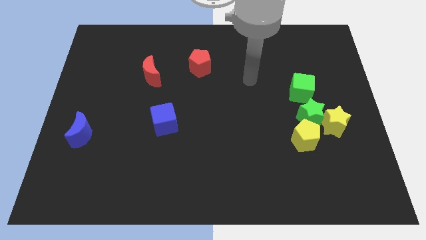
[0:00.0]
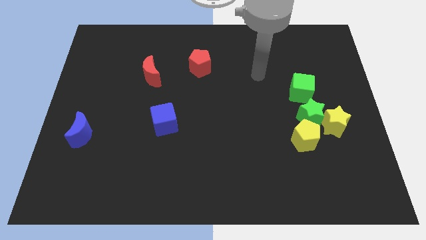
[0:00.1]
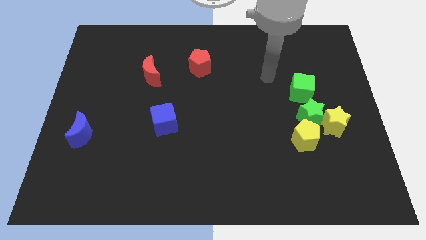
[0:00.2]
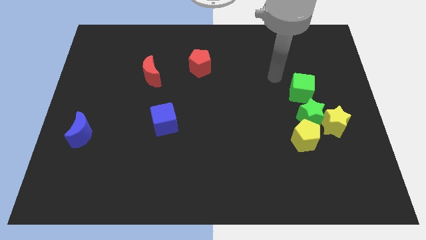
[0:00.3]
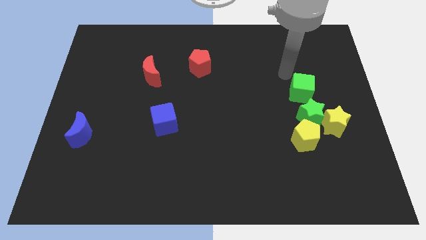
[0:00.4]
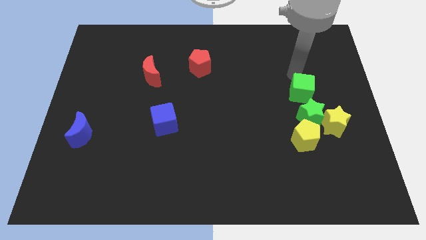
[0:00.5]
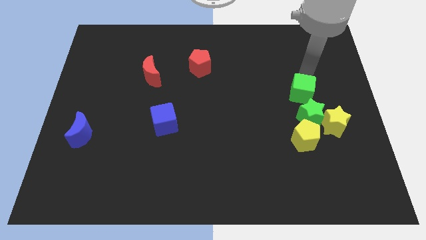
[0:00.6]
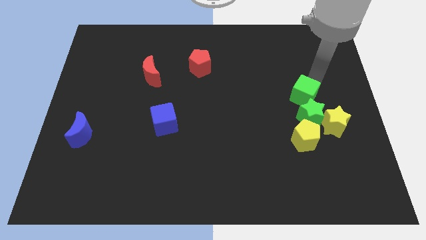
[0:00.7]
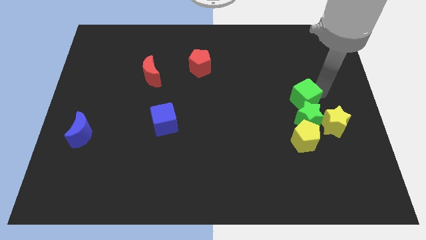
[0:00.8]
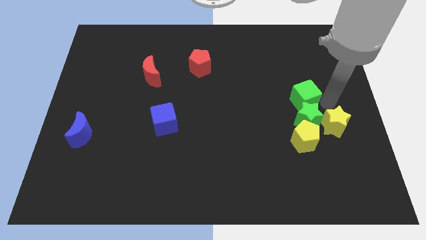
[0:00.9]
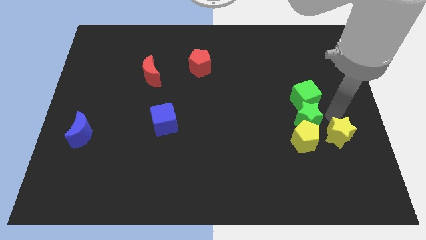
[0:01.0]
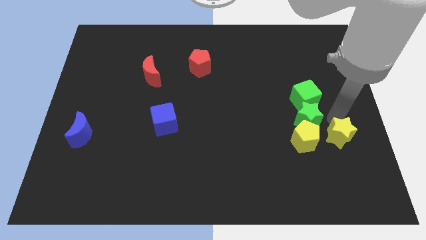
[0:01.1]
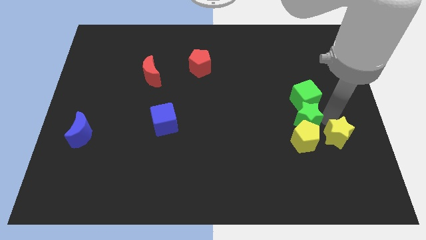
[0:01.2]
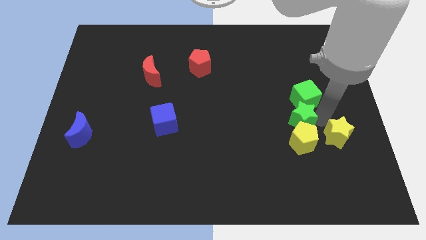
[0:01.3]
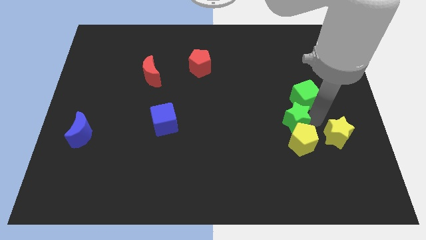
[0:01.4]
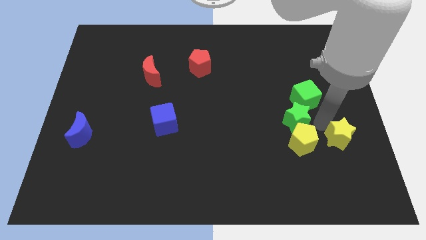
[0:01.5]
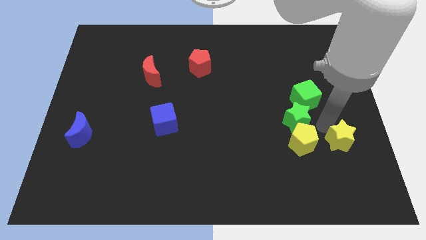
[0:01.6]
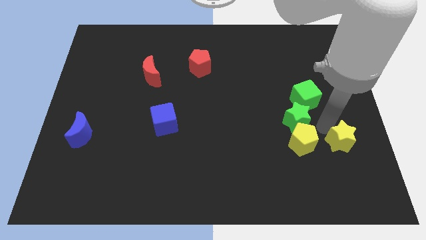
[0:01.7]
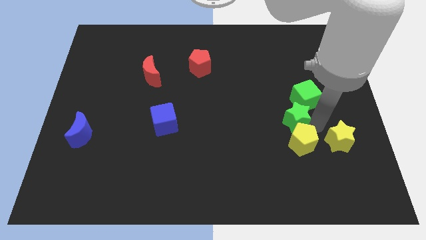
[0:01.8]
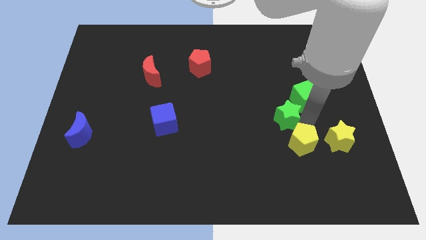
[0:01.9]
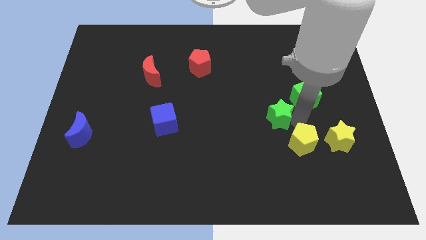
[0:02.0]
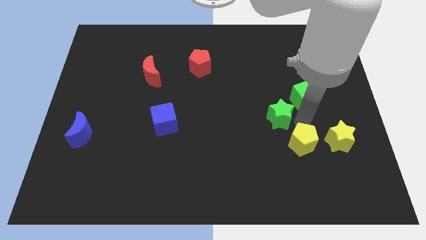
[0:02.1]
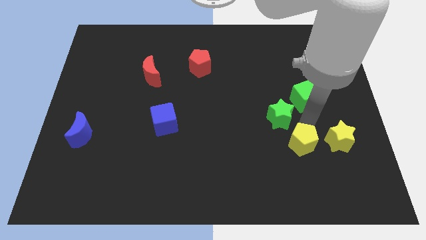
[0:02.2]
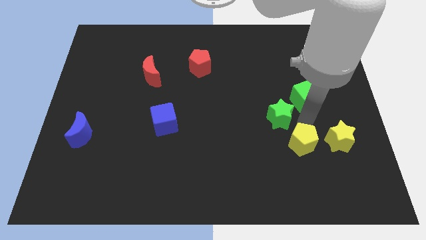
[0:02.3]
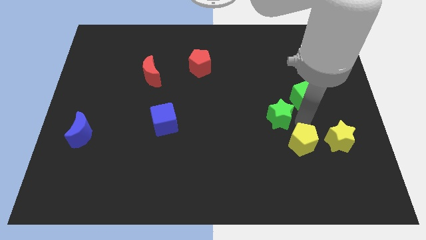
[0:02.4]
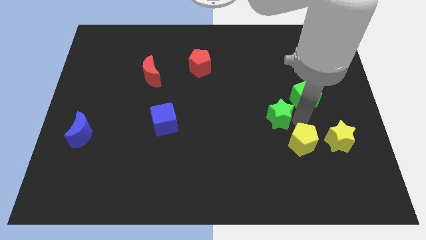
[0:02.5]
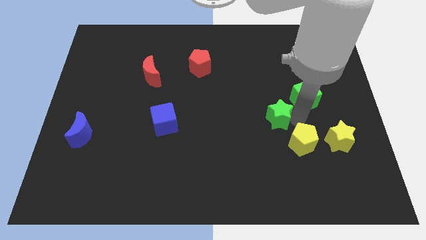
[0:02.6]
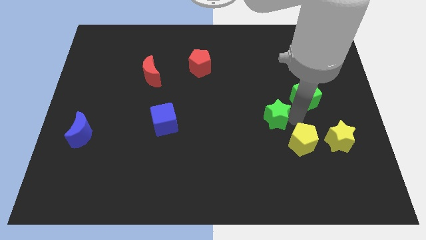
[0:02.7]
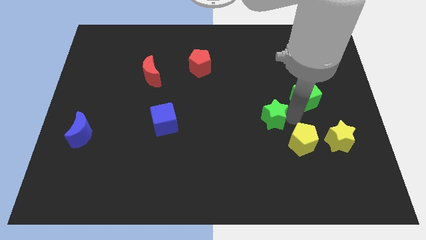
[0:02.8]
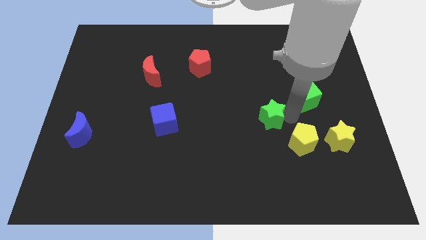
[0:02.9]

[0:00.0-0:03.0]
pull the green star apart from the yellow star, yellow pentagon, and green cube

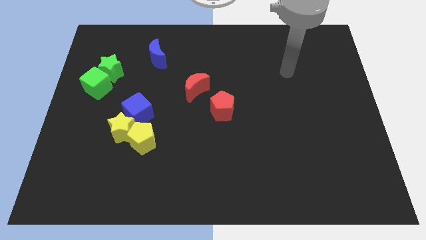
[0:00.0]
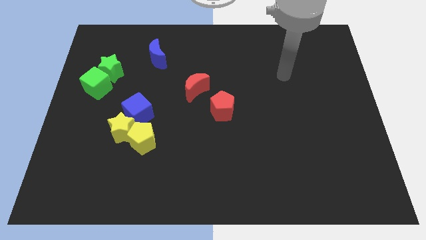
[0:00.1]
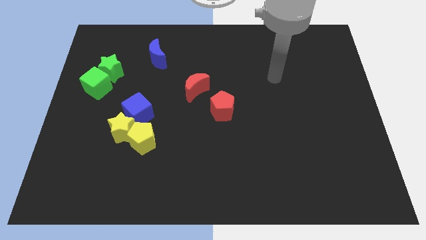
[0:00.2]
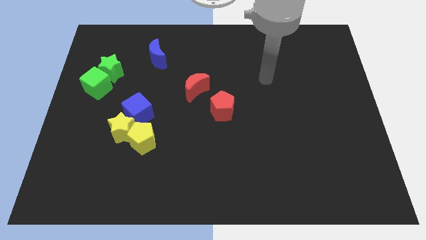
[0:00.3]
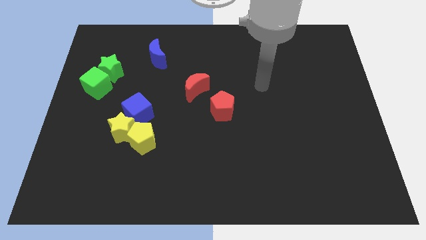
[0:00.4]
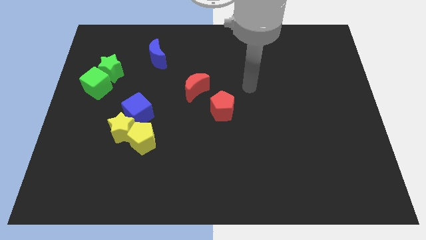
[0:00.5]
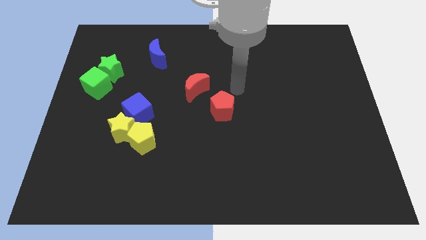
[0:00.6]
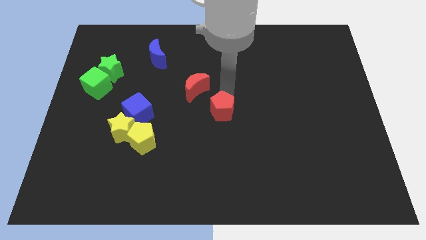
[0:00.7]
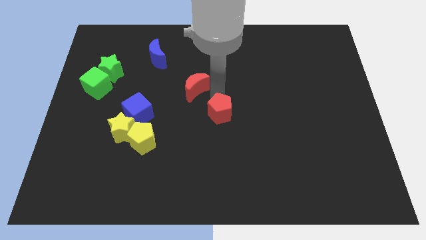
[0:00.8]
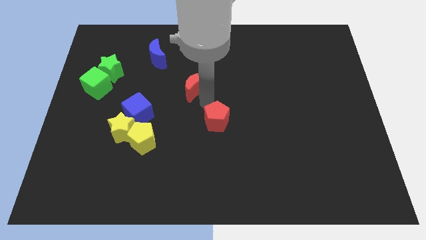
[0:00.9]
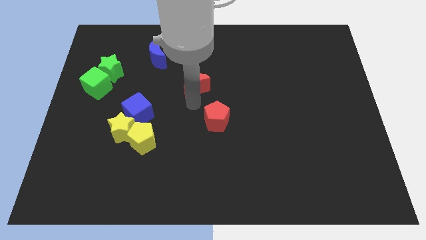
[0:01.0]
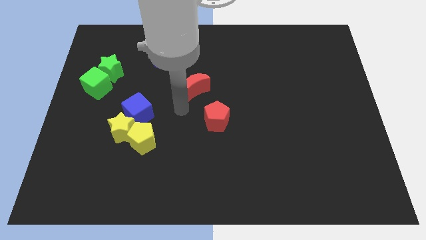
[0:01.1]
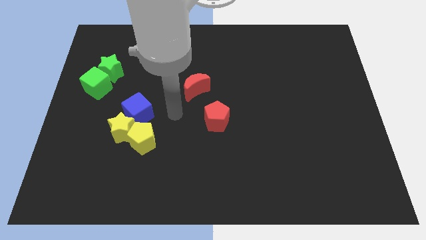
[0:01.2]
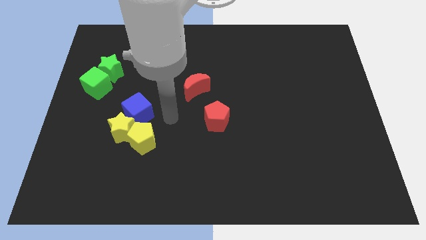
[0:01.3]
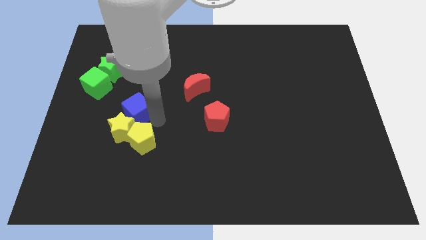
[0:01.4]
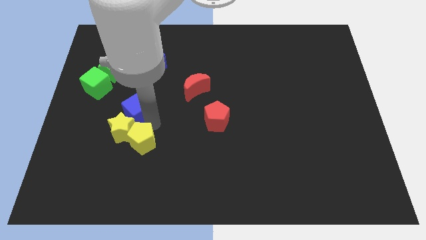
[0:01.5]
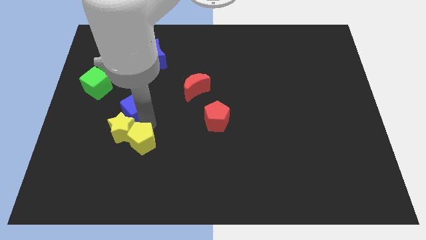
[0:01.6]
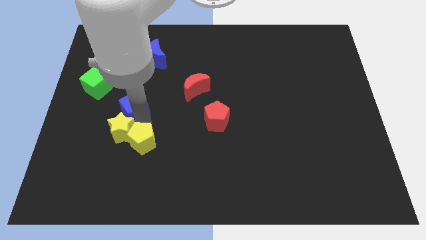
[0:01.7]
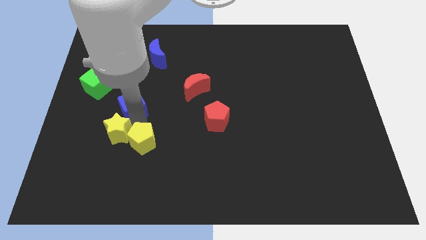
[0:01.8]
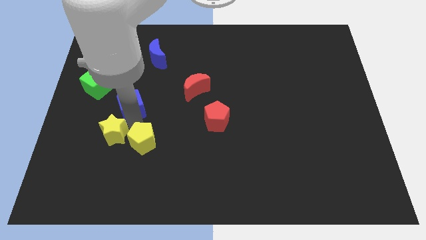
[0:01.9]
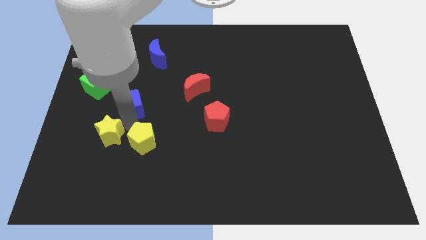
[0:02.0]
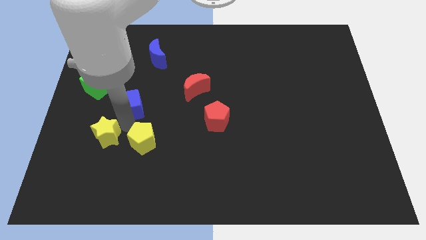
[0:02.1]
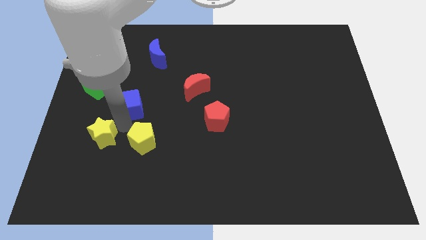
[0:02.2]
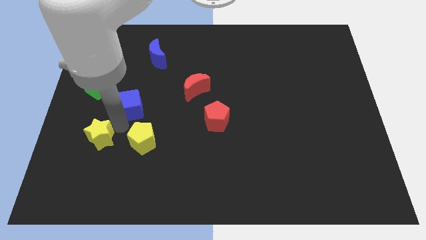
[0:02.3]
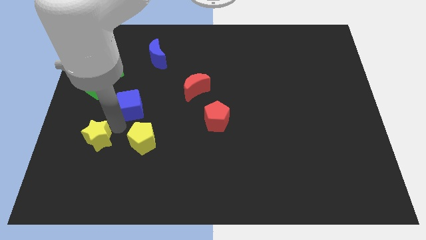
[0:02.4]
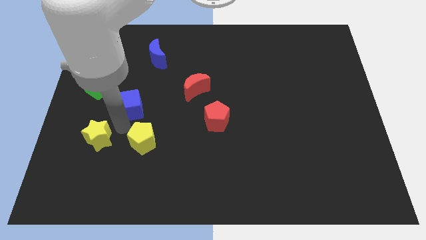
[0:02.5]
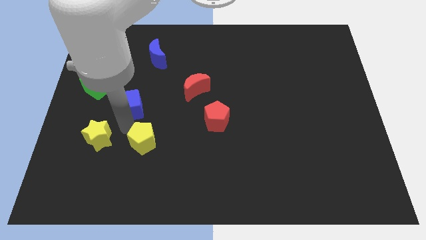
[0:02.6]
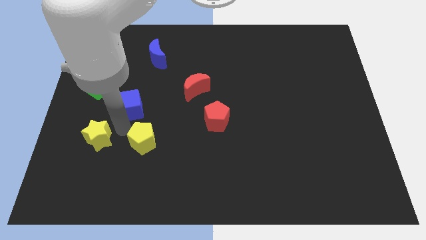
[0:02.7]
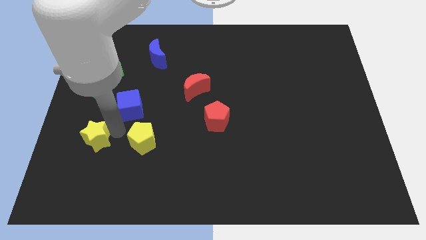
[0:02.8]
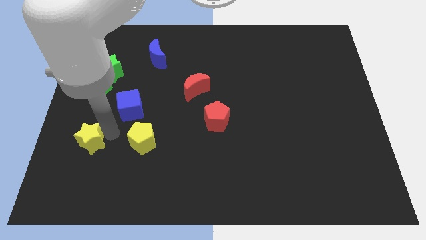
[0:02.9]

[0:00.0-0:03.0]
separate the yellow star from the yellow pentagon and blue cube

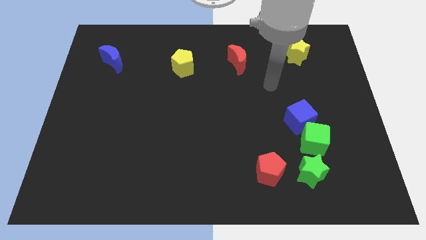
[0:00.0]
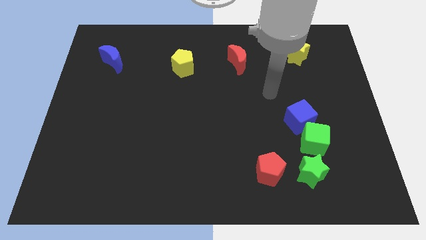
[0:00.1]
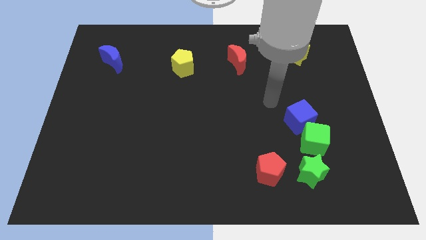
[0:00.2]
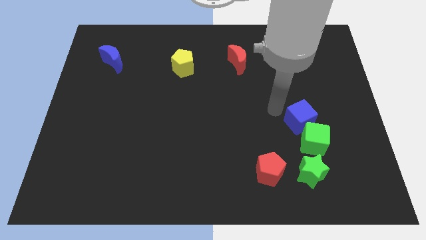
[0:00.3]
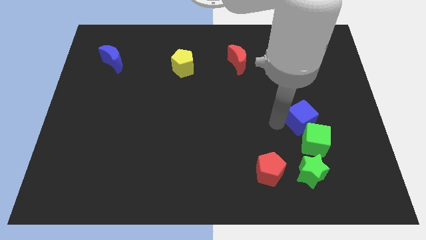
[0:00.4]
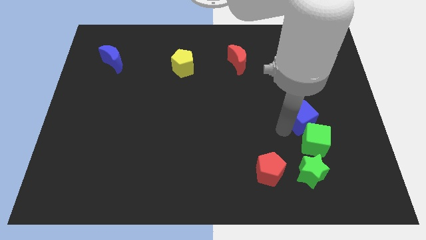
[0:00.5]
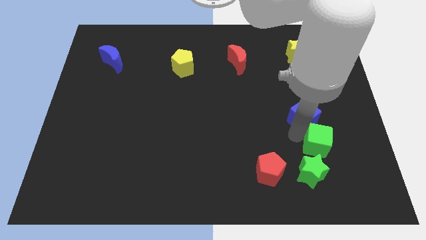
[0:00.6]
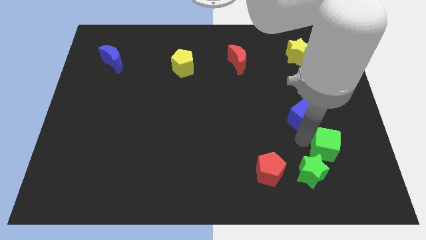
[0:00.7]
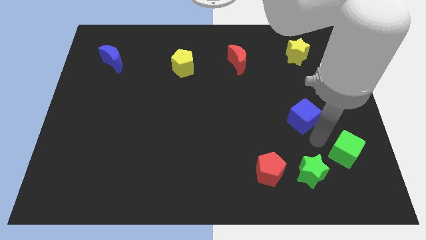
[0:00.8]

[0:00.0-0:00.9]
pull the blue cube apart from the green cube

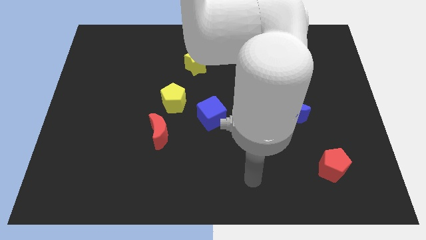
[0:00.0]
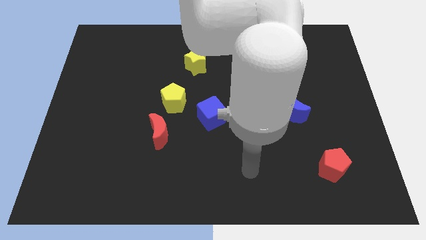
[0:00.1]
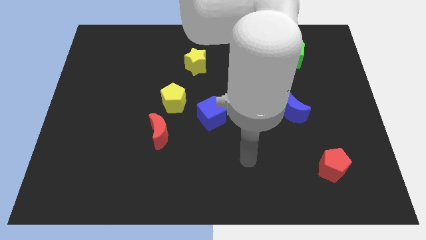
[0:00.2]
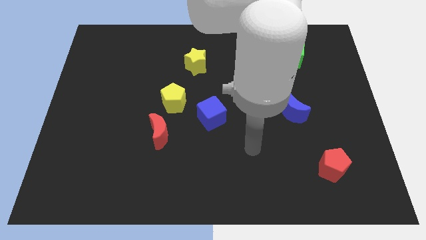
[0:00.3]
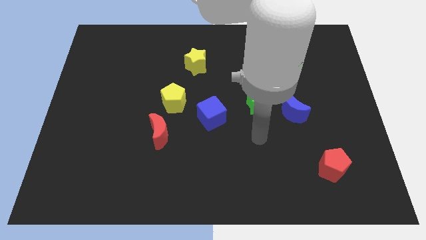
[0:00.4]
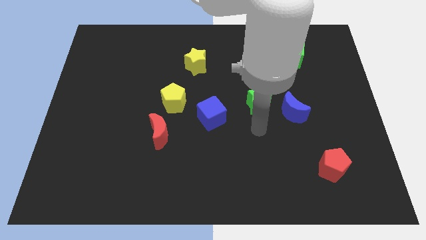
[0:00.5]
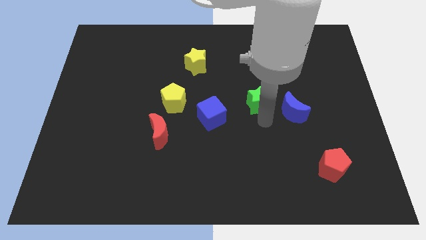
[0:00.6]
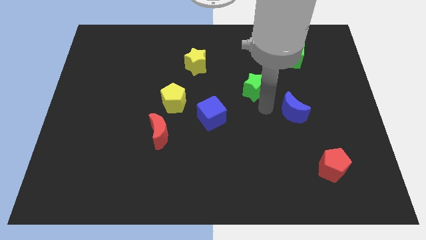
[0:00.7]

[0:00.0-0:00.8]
separate the blue moon from the green star

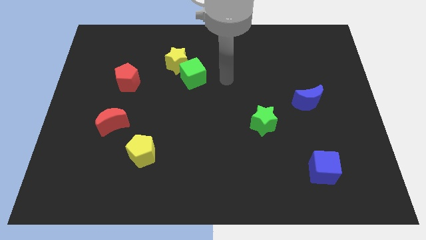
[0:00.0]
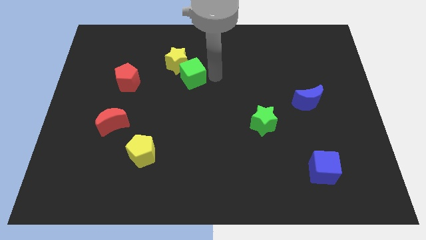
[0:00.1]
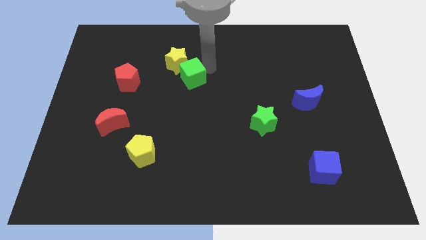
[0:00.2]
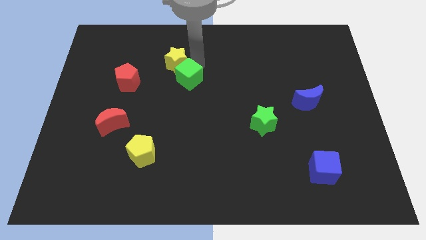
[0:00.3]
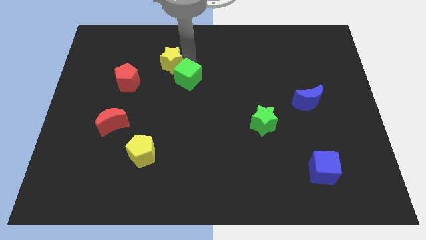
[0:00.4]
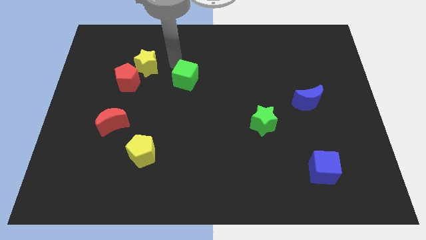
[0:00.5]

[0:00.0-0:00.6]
separate the green cube from the yellow star

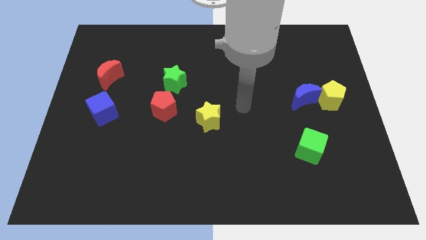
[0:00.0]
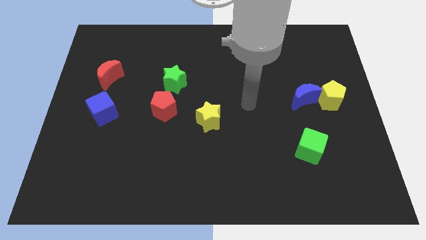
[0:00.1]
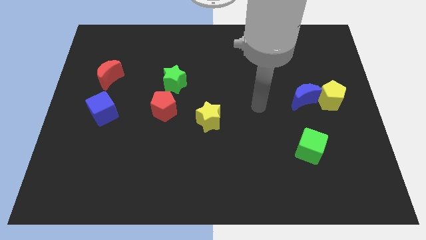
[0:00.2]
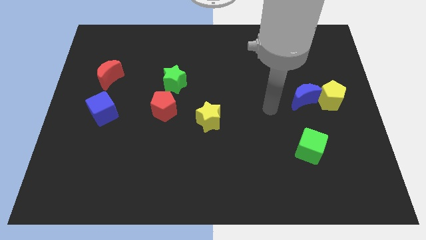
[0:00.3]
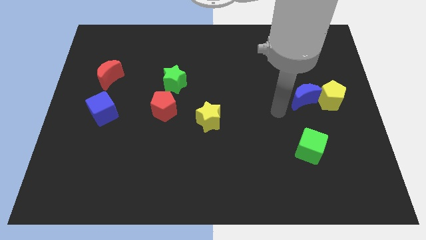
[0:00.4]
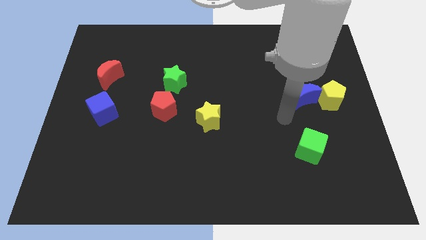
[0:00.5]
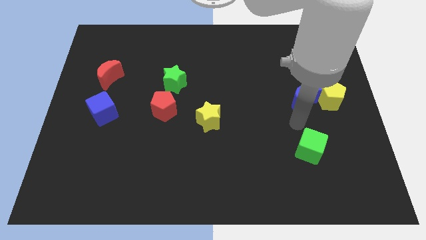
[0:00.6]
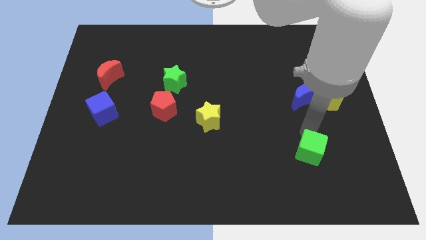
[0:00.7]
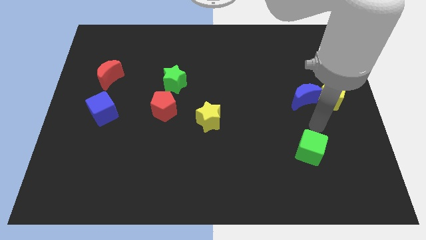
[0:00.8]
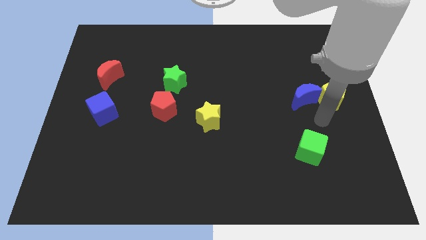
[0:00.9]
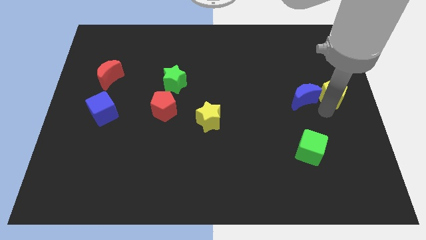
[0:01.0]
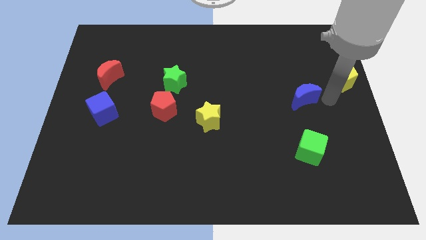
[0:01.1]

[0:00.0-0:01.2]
pull the blue moon apart from the yellow pentagon
